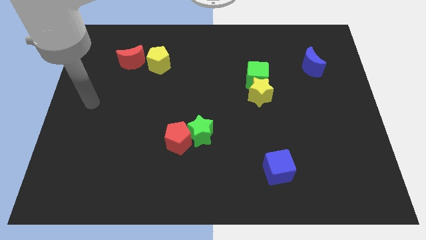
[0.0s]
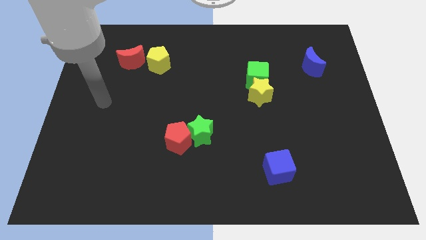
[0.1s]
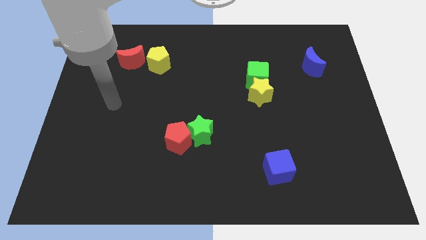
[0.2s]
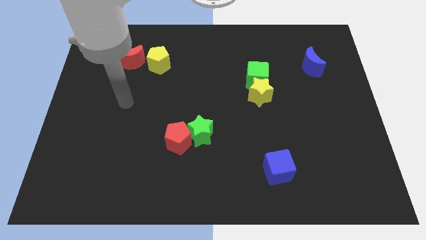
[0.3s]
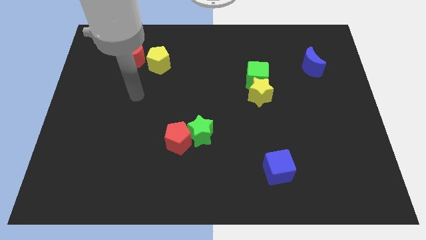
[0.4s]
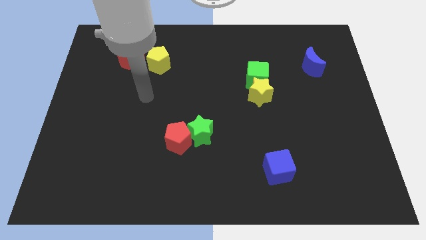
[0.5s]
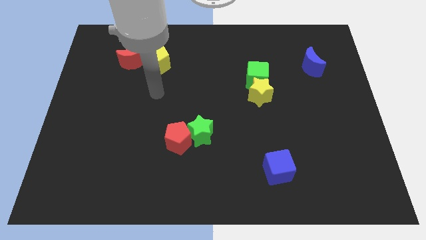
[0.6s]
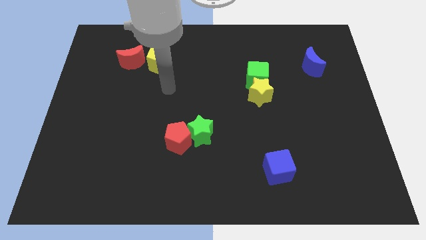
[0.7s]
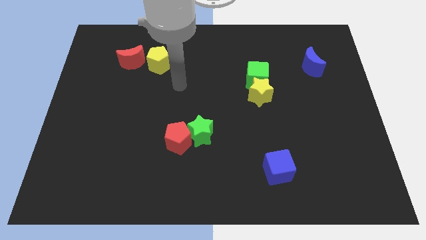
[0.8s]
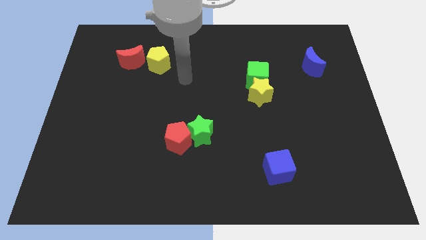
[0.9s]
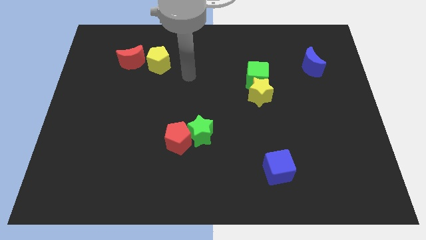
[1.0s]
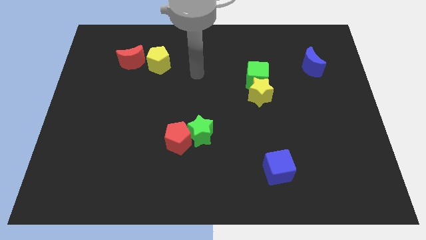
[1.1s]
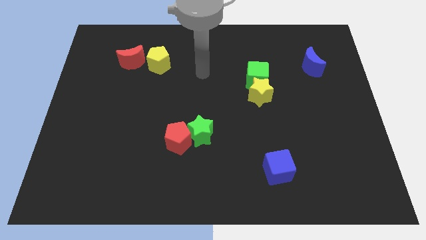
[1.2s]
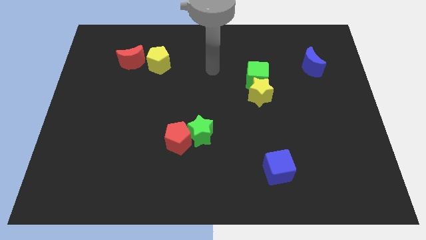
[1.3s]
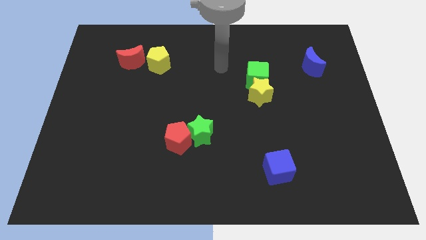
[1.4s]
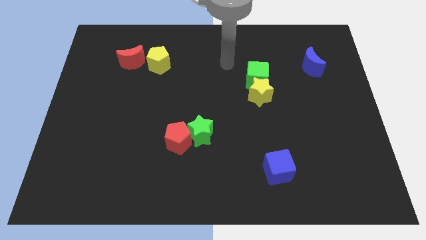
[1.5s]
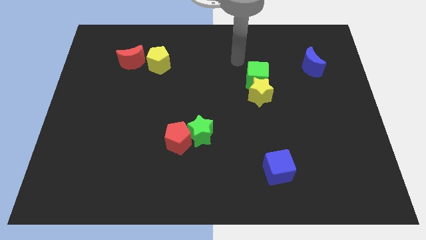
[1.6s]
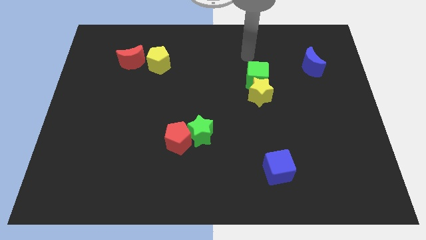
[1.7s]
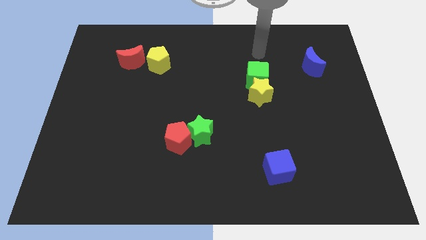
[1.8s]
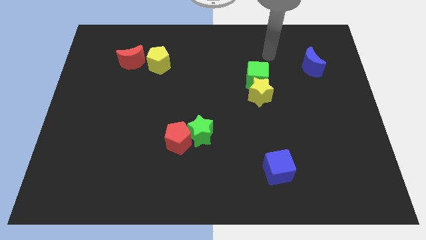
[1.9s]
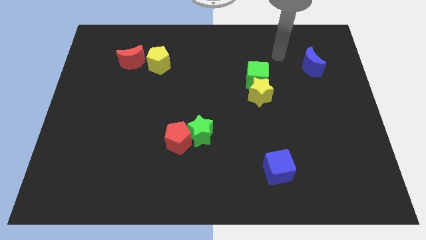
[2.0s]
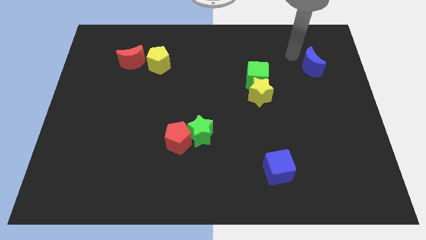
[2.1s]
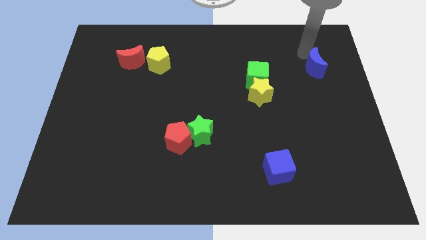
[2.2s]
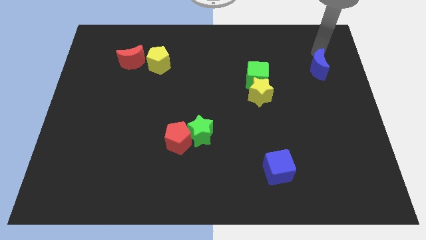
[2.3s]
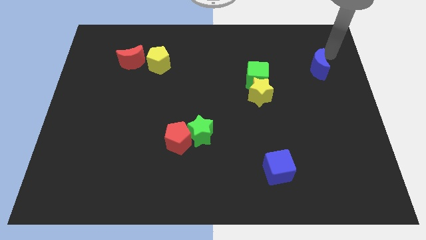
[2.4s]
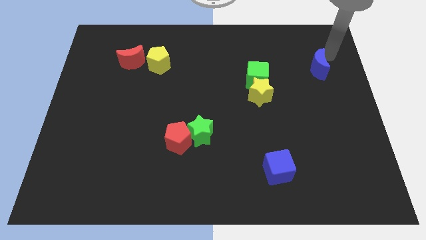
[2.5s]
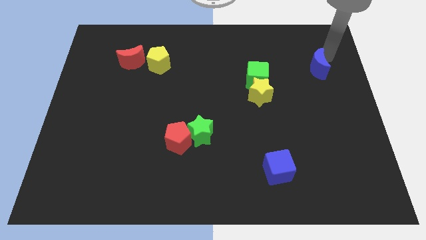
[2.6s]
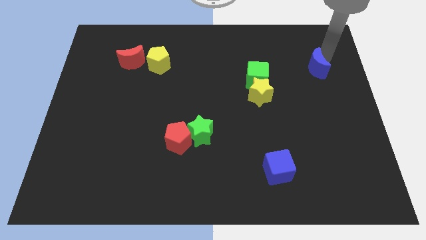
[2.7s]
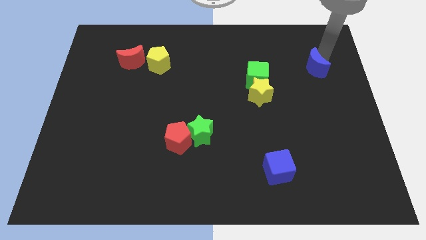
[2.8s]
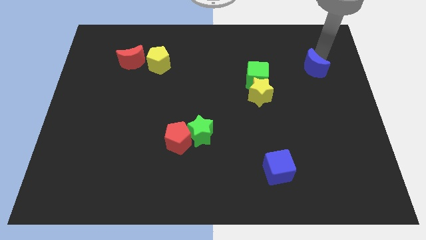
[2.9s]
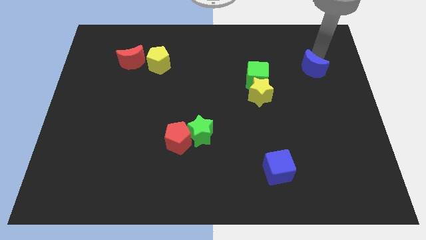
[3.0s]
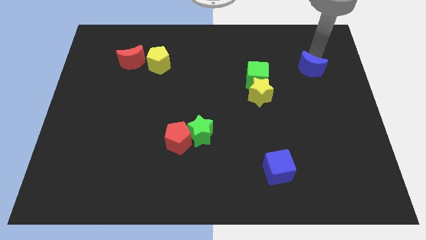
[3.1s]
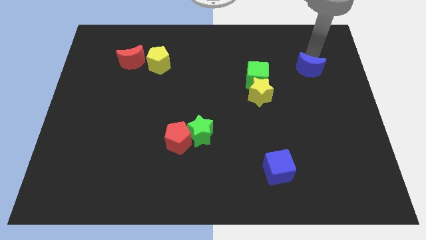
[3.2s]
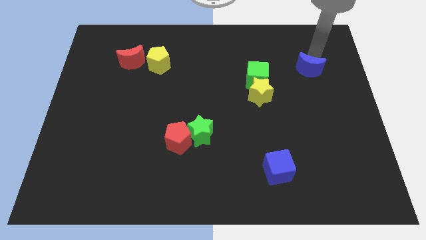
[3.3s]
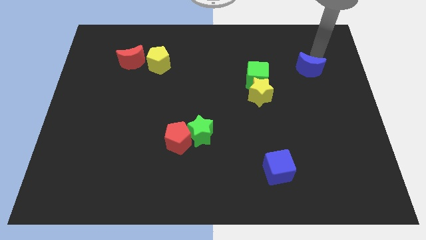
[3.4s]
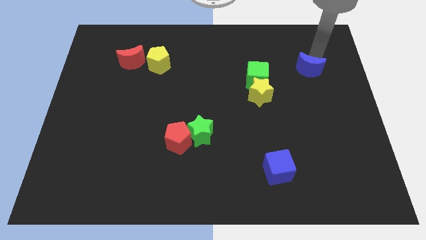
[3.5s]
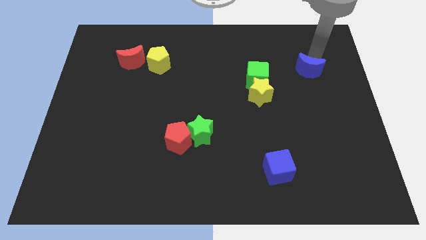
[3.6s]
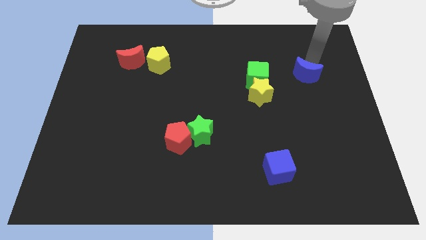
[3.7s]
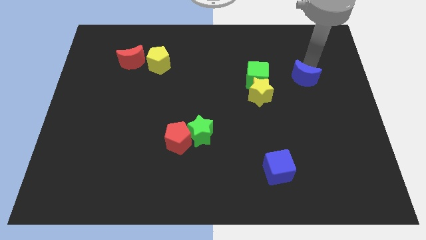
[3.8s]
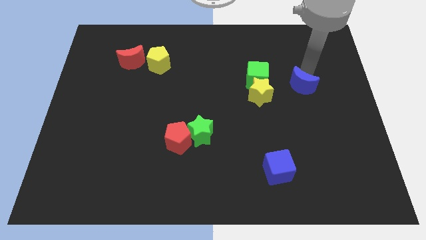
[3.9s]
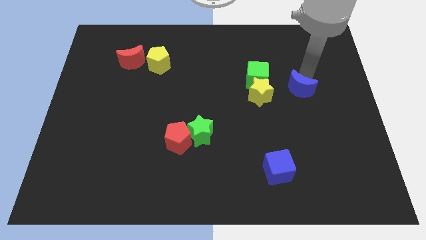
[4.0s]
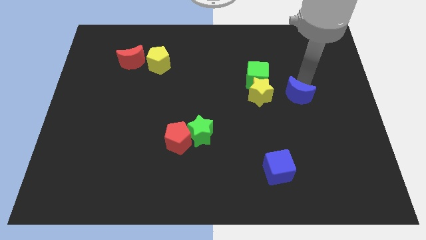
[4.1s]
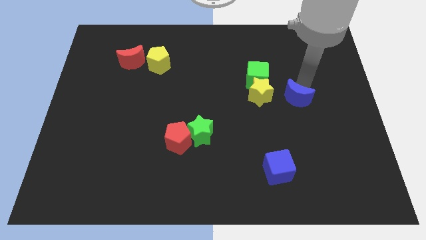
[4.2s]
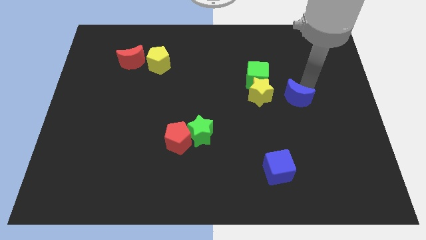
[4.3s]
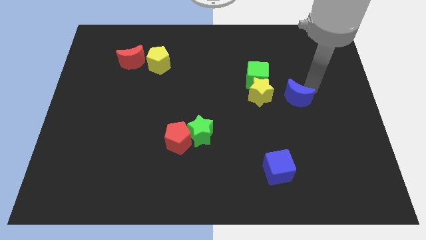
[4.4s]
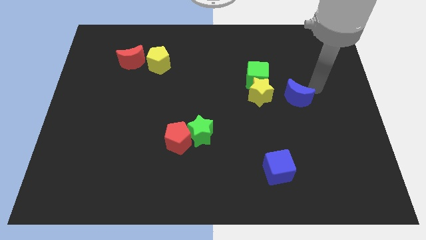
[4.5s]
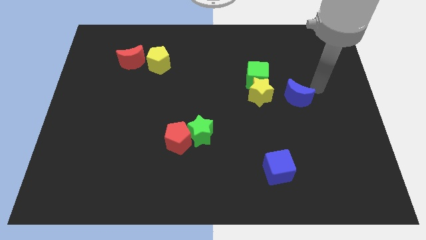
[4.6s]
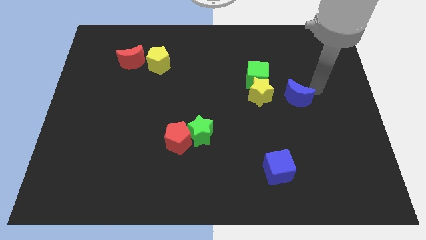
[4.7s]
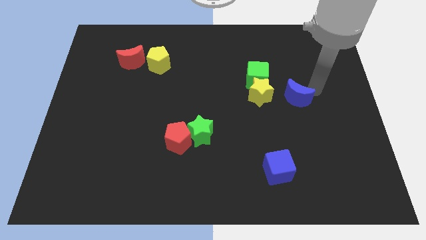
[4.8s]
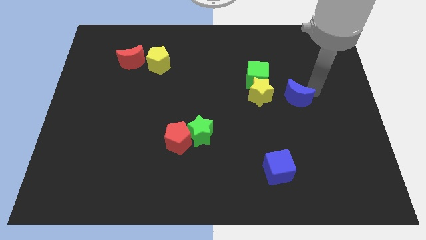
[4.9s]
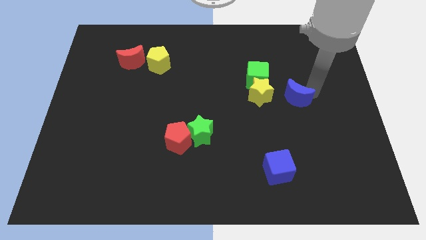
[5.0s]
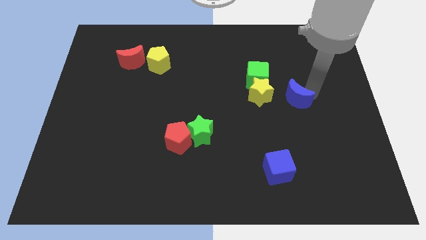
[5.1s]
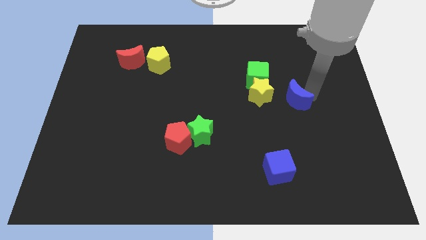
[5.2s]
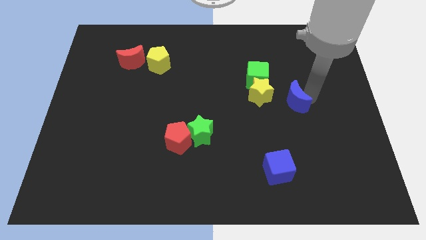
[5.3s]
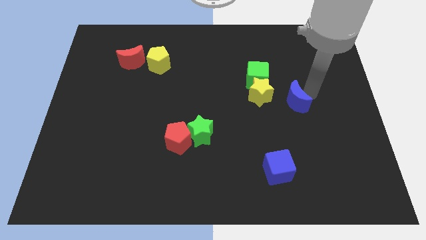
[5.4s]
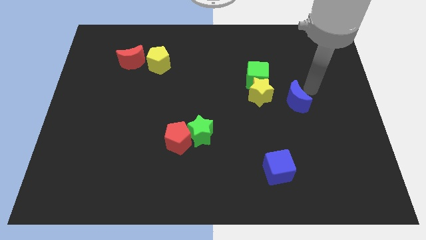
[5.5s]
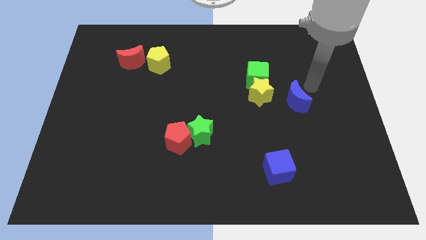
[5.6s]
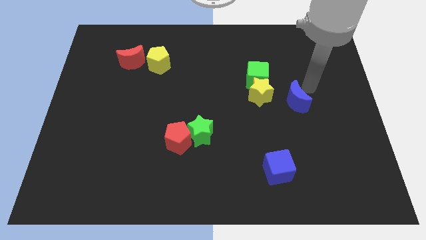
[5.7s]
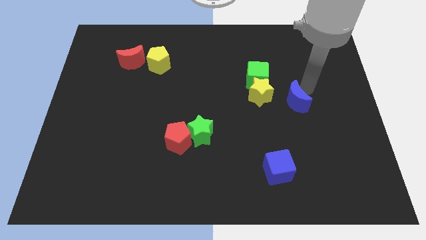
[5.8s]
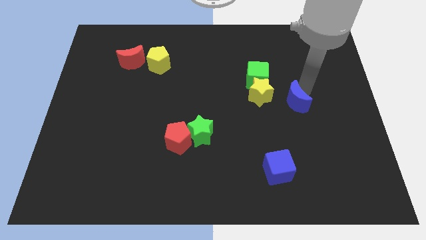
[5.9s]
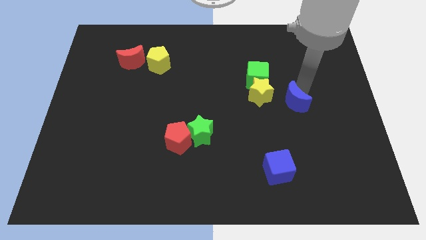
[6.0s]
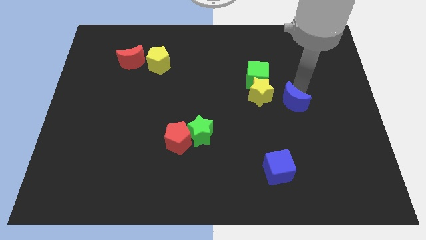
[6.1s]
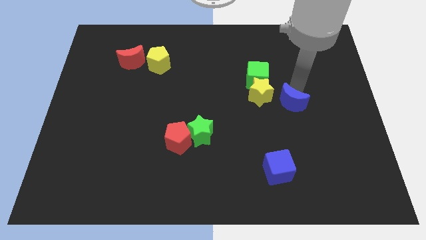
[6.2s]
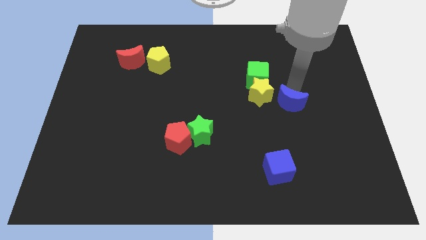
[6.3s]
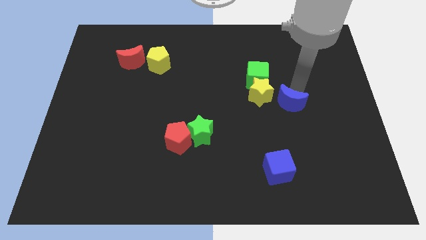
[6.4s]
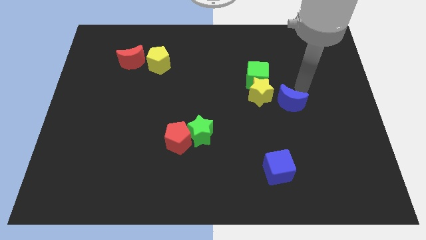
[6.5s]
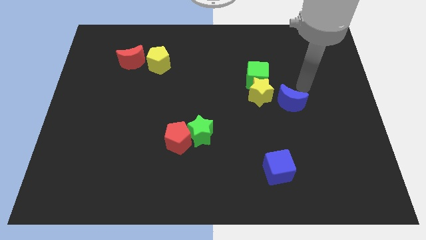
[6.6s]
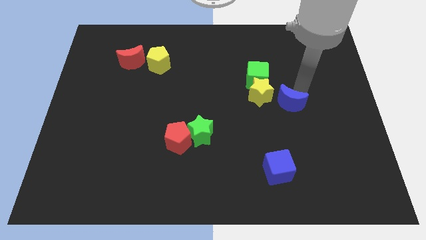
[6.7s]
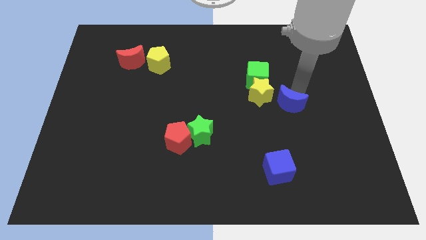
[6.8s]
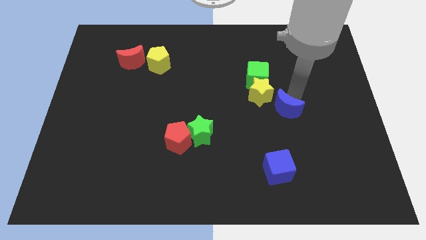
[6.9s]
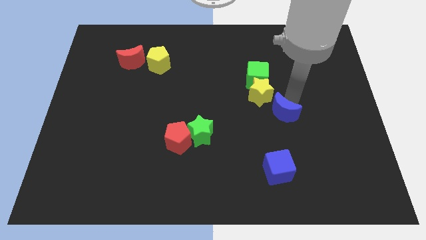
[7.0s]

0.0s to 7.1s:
put the blue moon below the yellow star

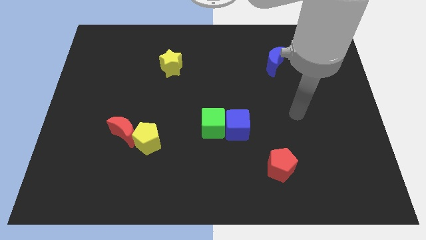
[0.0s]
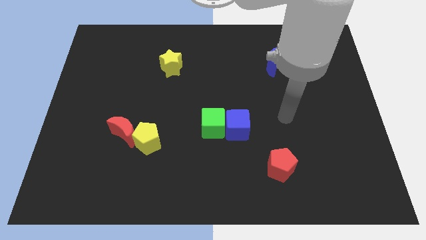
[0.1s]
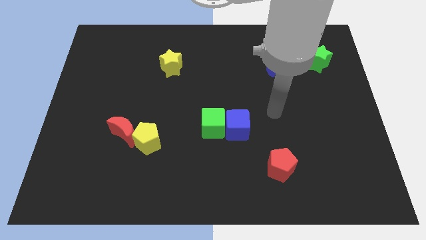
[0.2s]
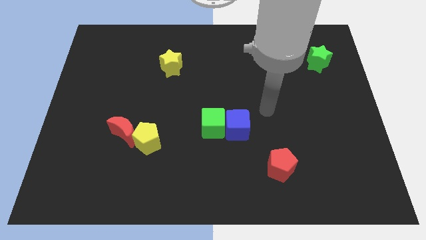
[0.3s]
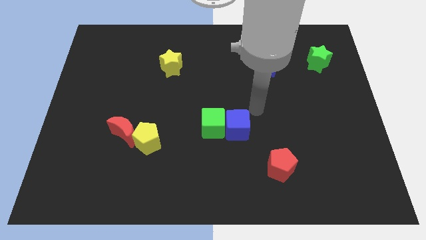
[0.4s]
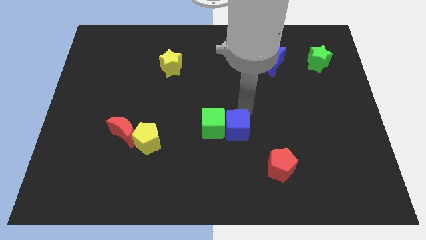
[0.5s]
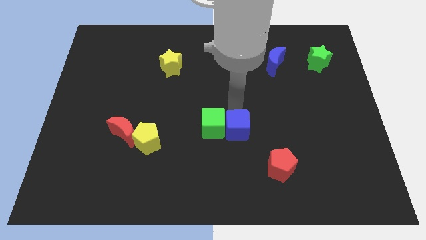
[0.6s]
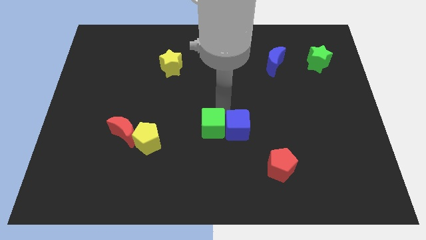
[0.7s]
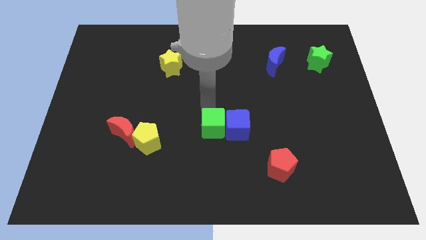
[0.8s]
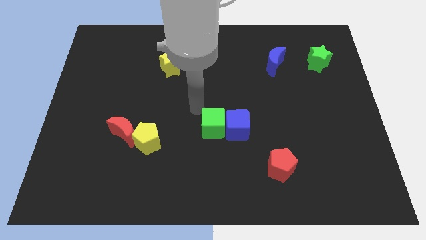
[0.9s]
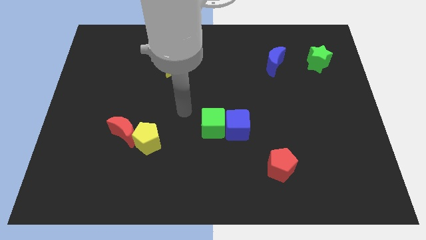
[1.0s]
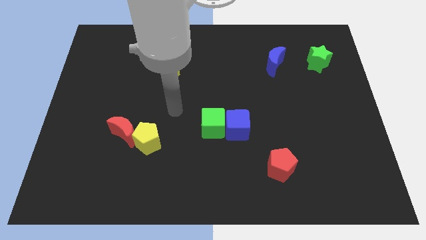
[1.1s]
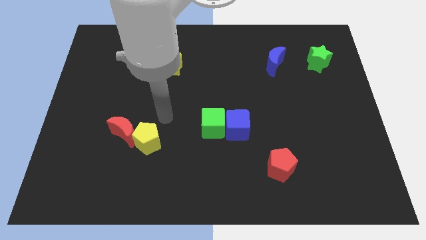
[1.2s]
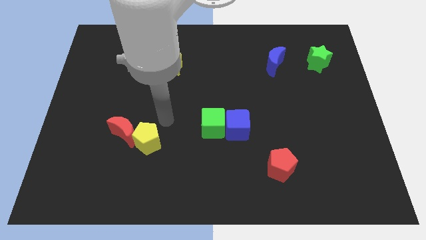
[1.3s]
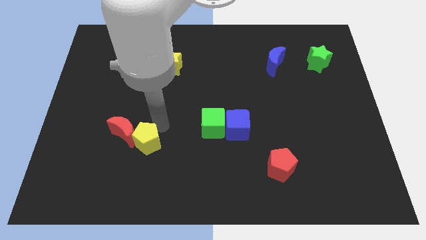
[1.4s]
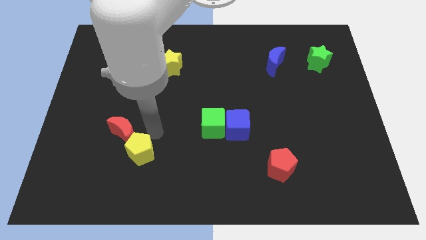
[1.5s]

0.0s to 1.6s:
slide the yellow pentagon below the red moon
